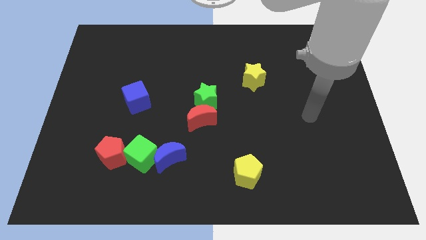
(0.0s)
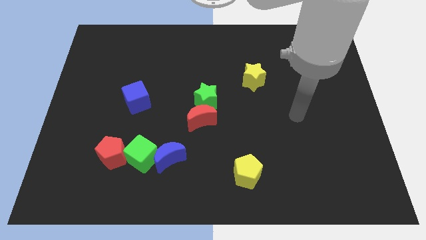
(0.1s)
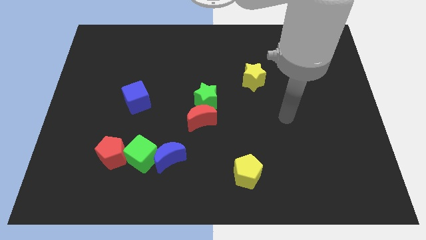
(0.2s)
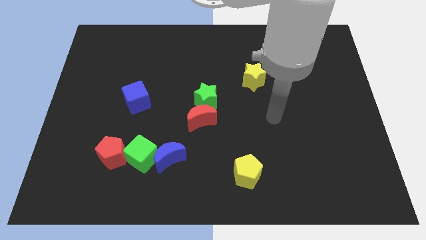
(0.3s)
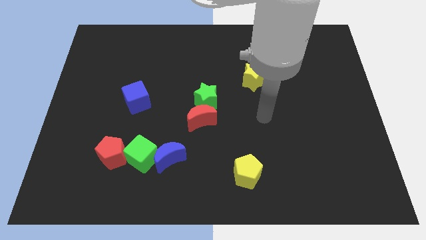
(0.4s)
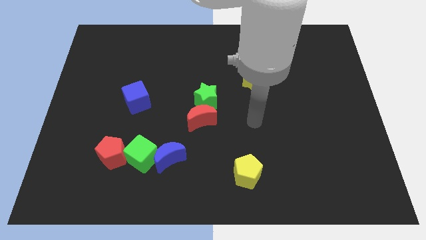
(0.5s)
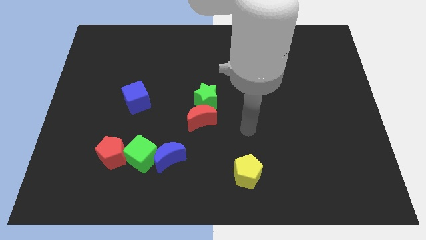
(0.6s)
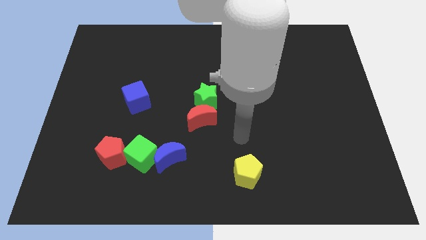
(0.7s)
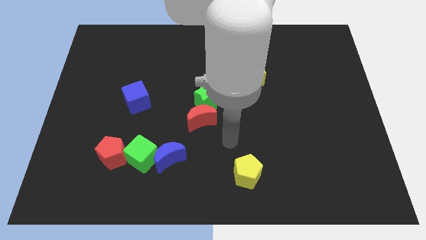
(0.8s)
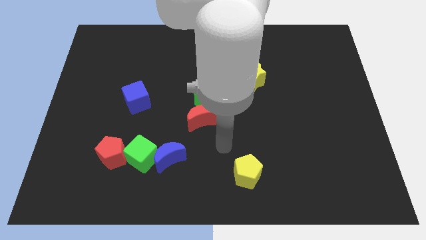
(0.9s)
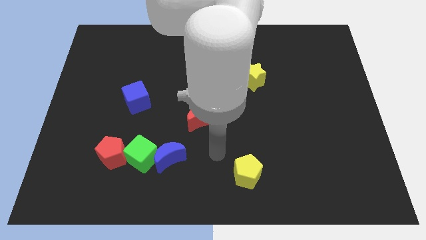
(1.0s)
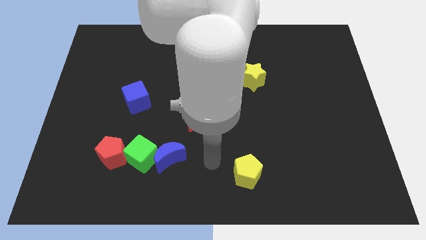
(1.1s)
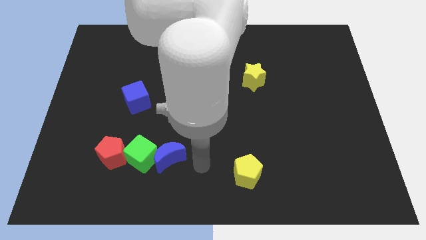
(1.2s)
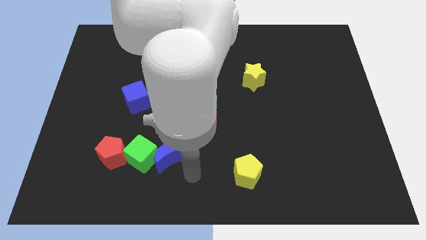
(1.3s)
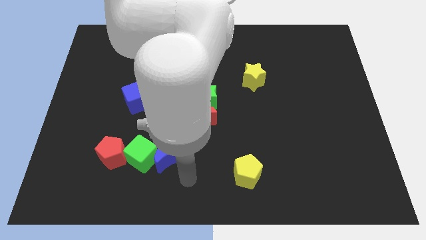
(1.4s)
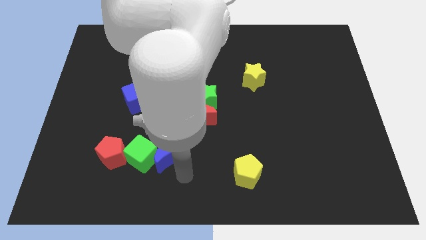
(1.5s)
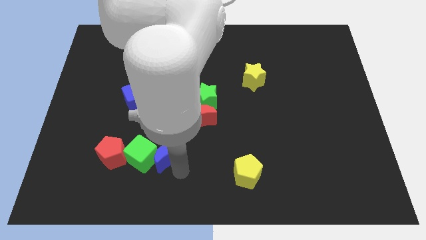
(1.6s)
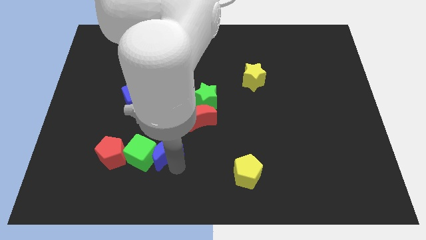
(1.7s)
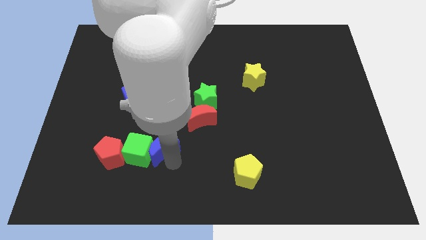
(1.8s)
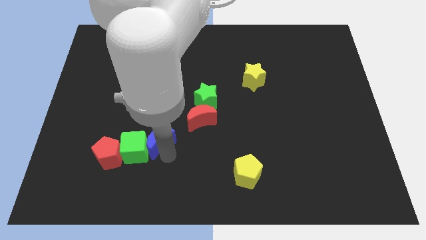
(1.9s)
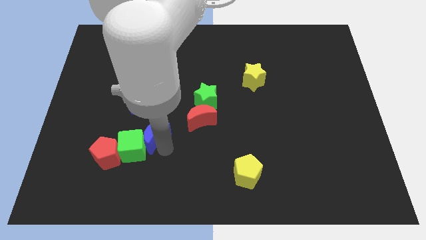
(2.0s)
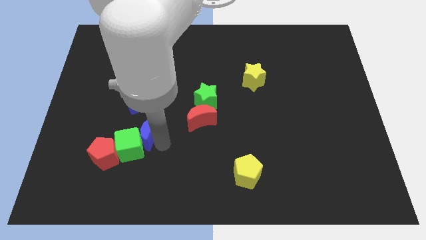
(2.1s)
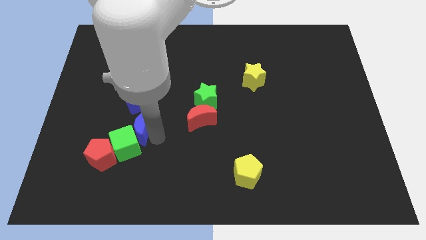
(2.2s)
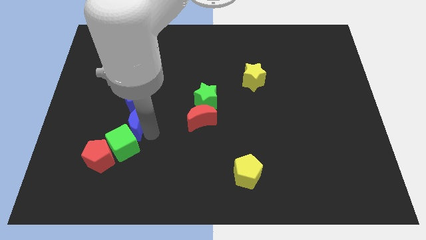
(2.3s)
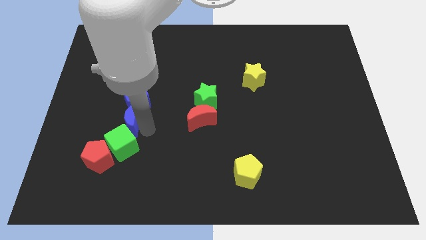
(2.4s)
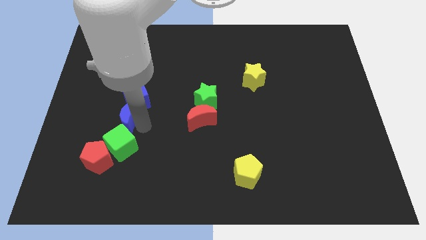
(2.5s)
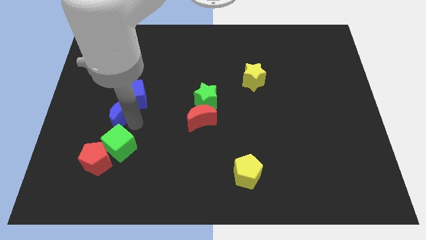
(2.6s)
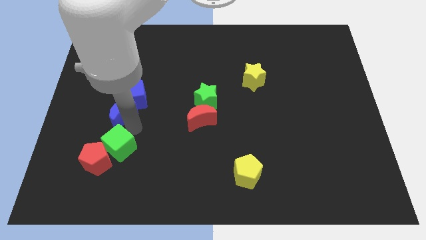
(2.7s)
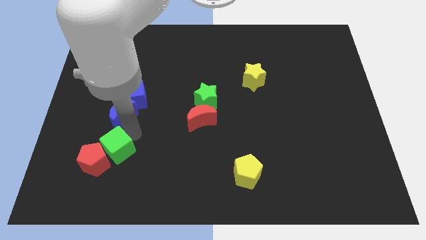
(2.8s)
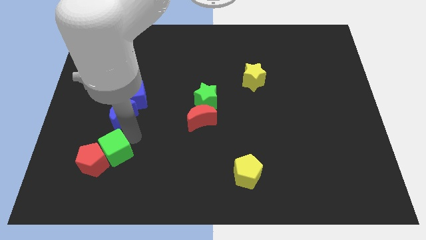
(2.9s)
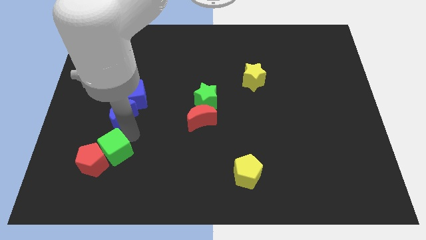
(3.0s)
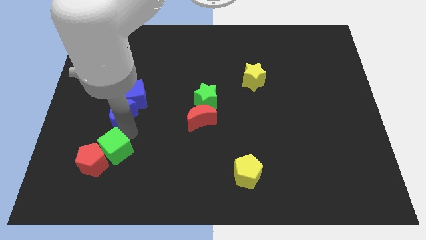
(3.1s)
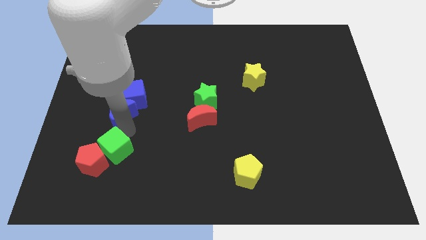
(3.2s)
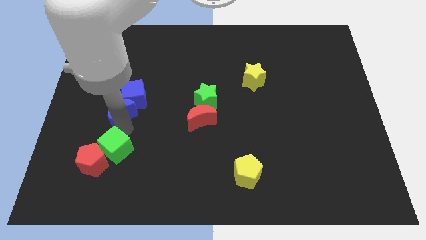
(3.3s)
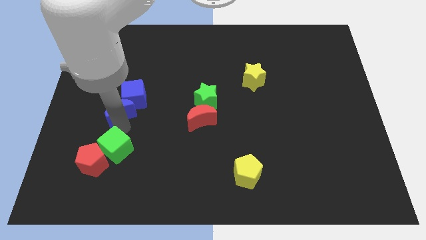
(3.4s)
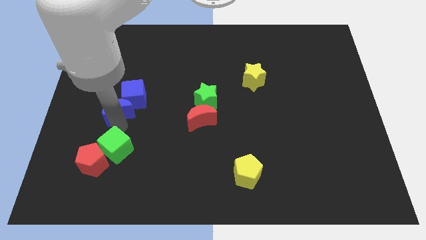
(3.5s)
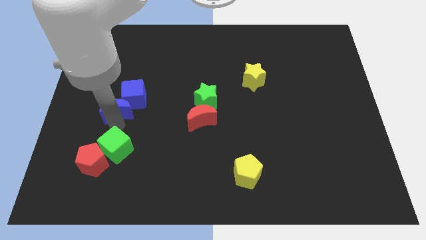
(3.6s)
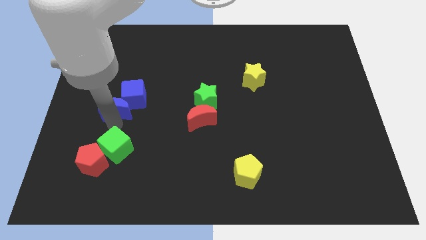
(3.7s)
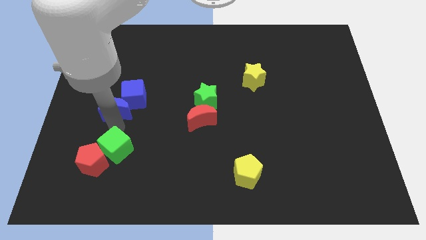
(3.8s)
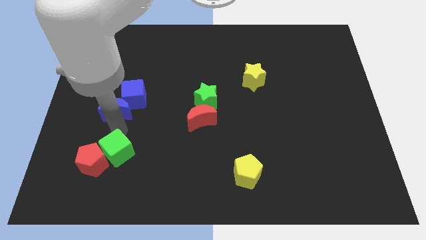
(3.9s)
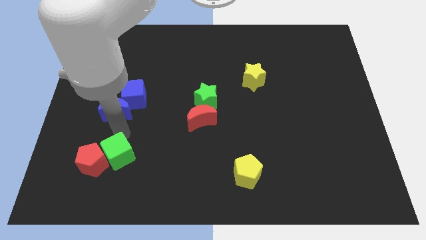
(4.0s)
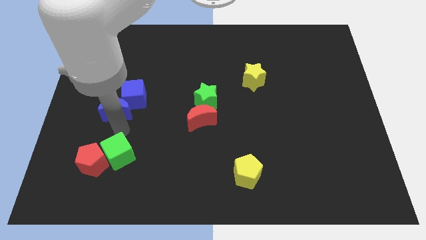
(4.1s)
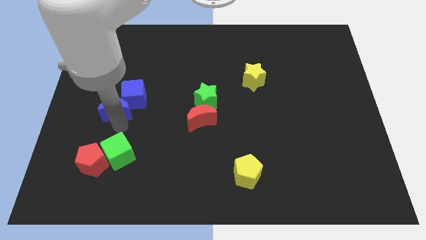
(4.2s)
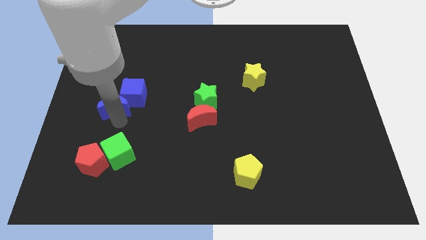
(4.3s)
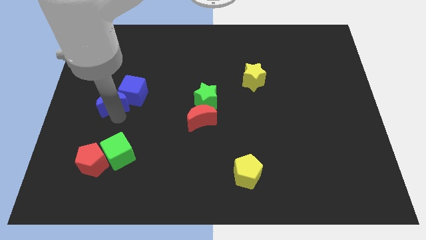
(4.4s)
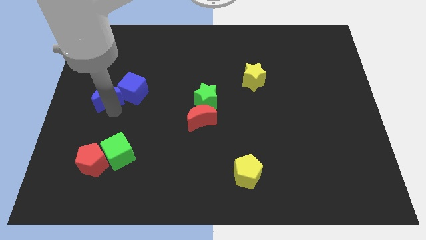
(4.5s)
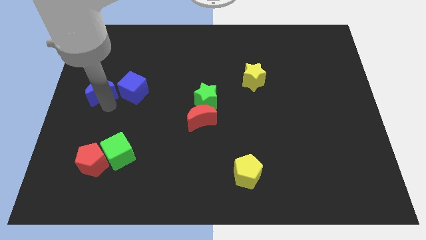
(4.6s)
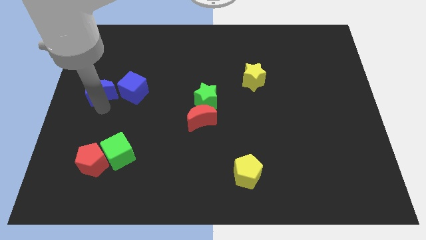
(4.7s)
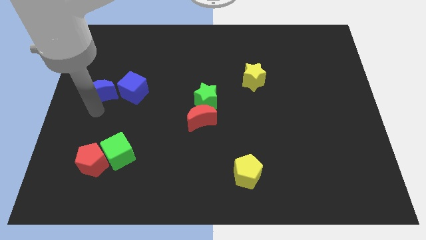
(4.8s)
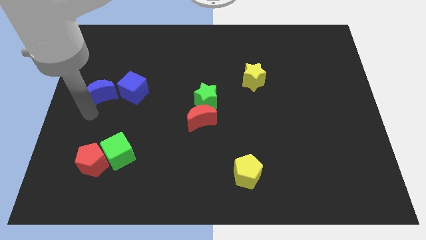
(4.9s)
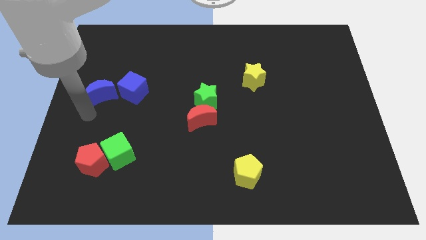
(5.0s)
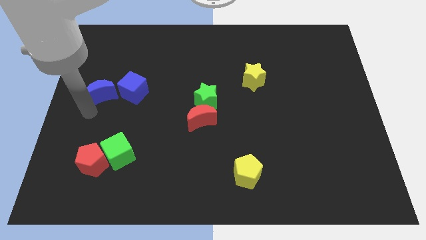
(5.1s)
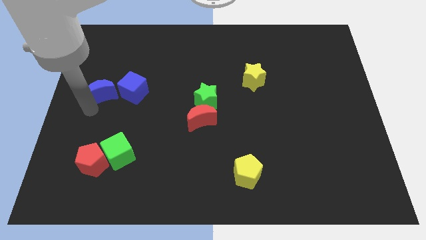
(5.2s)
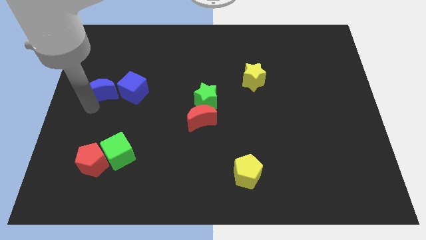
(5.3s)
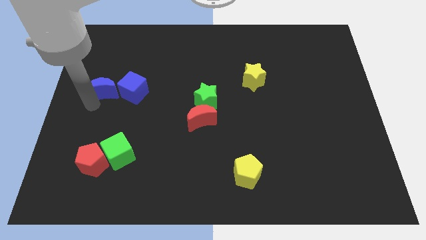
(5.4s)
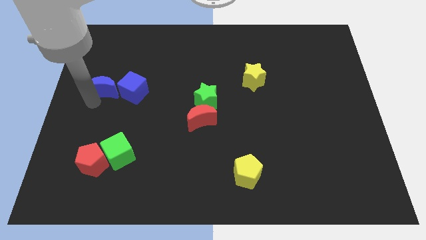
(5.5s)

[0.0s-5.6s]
push the blue moon to the top left of the blue cube

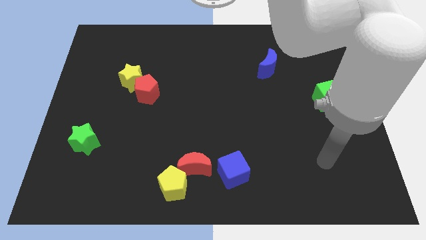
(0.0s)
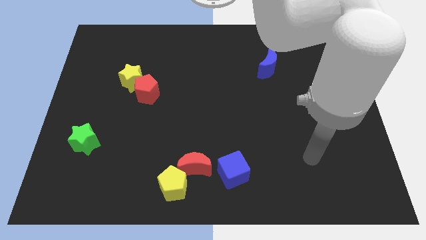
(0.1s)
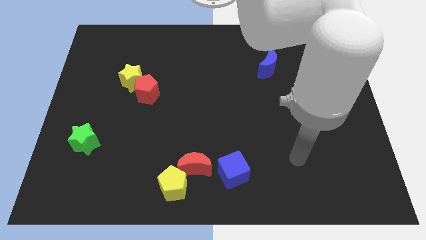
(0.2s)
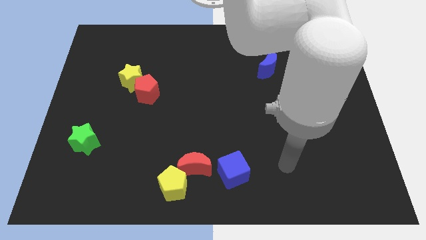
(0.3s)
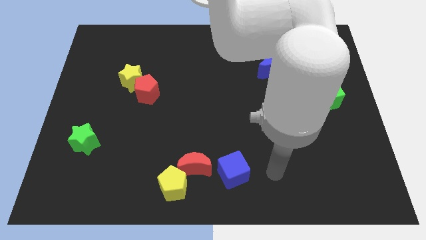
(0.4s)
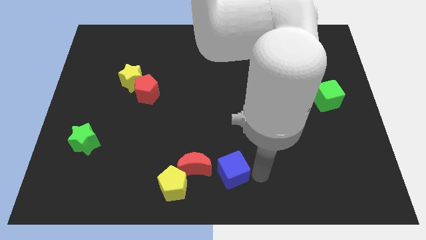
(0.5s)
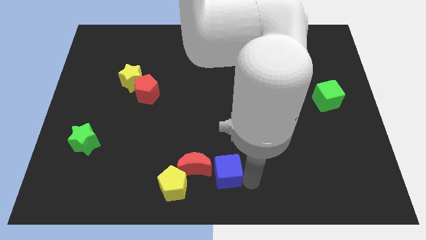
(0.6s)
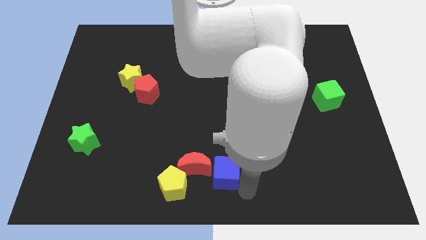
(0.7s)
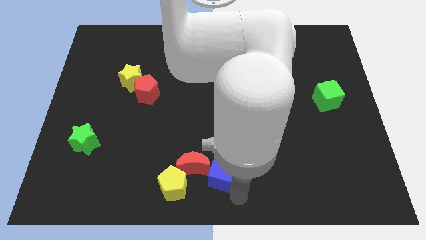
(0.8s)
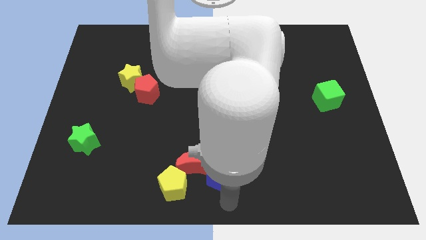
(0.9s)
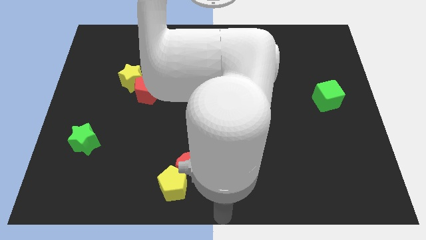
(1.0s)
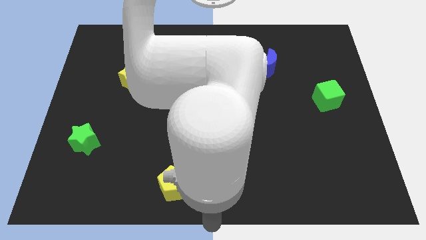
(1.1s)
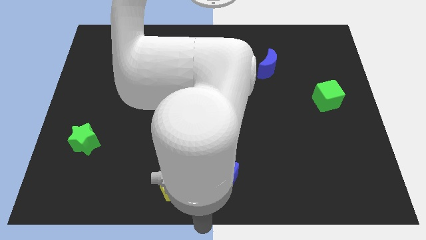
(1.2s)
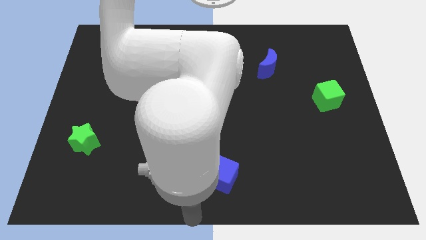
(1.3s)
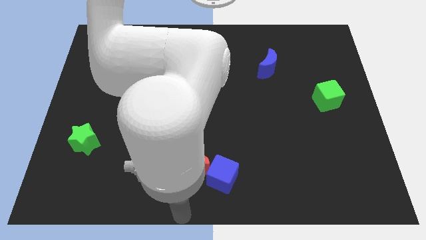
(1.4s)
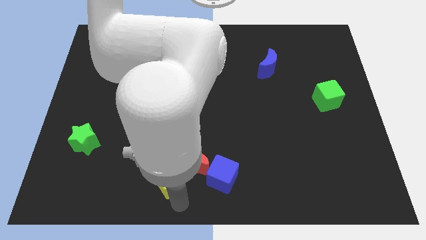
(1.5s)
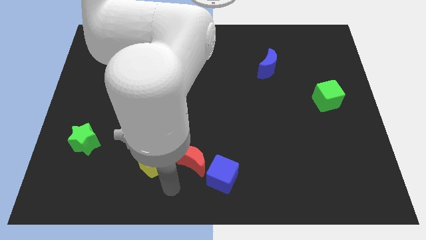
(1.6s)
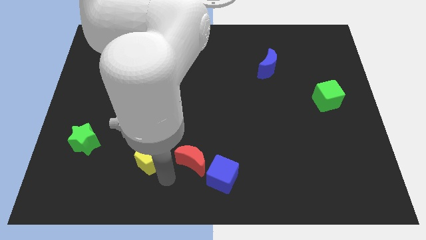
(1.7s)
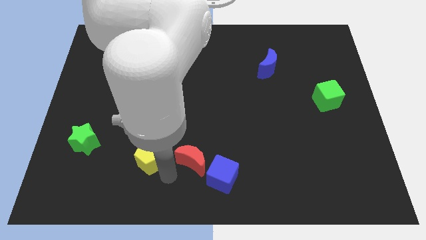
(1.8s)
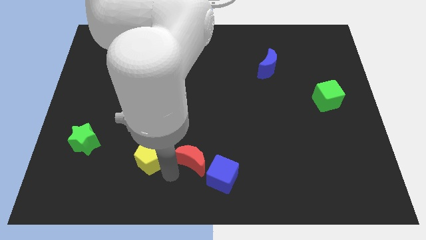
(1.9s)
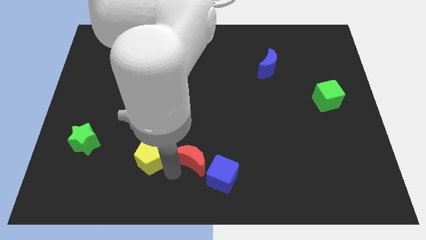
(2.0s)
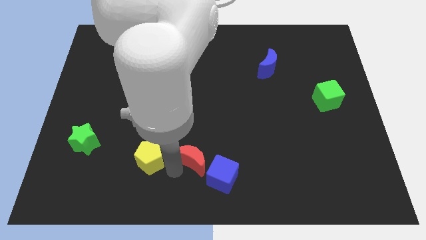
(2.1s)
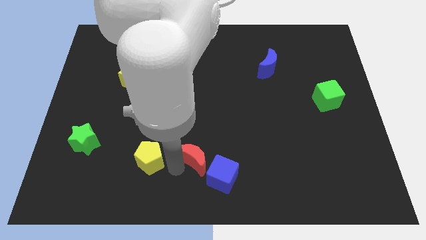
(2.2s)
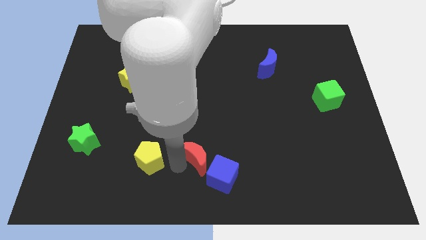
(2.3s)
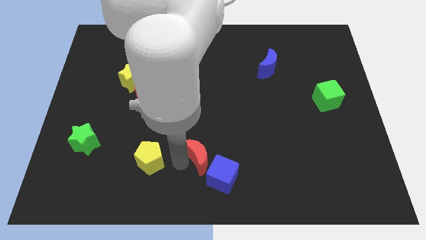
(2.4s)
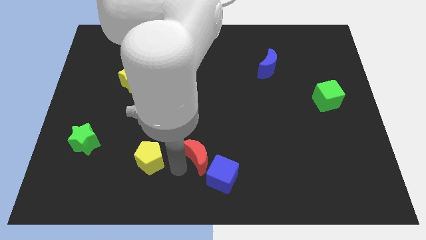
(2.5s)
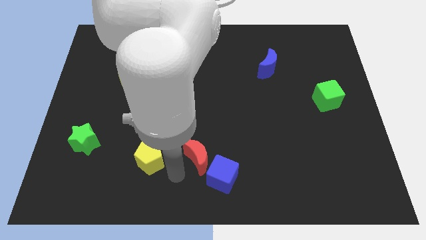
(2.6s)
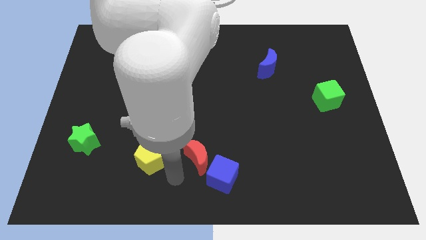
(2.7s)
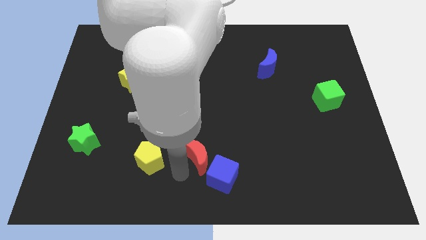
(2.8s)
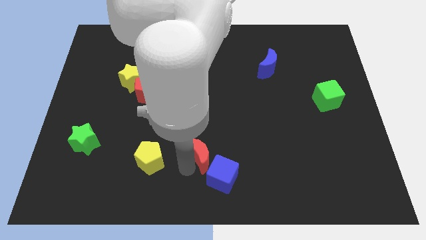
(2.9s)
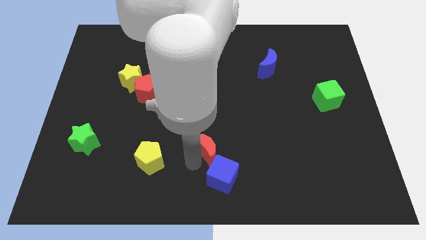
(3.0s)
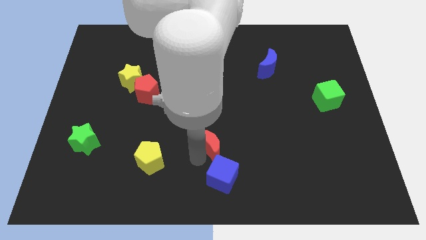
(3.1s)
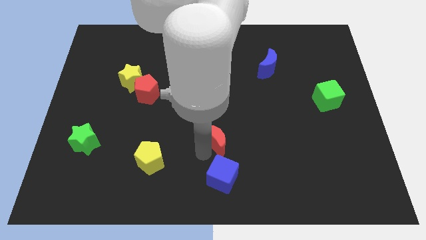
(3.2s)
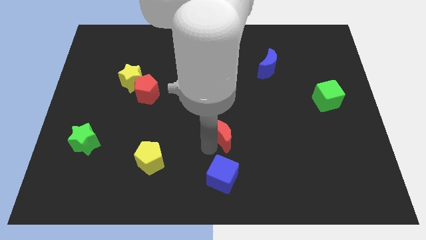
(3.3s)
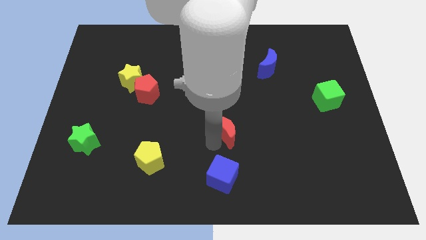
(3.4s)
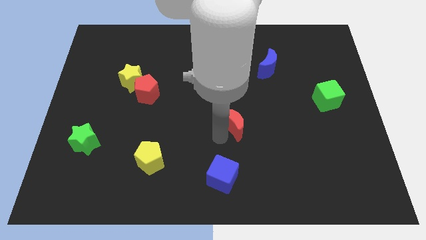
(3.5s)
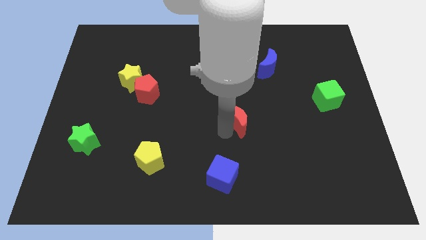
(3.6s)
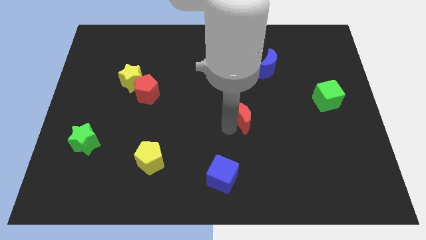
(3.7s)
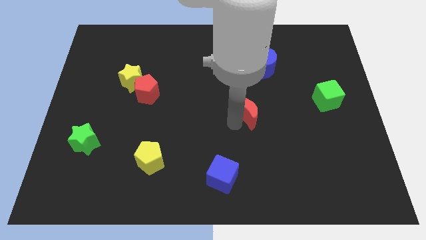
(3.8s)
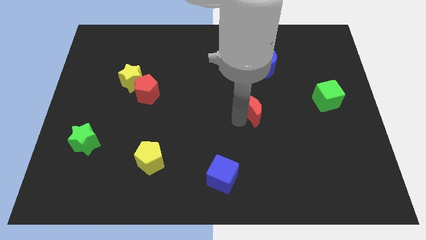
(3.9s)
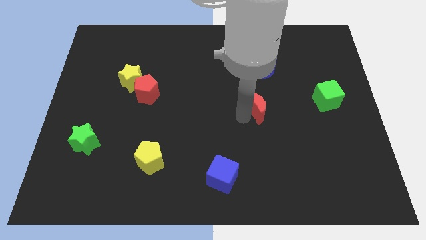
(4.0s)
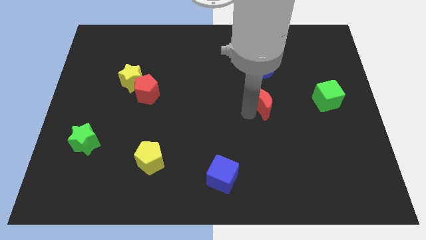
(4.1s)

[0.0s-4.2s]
move the red moon left of the green cube
